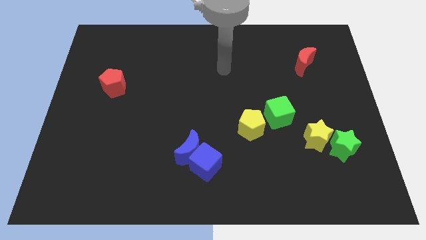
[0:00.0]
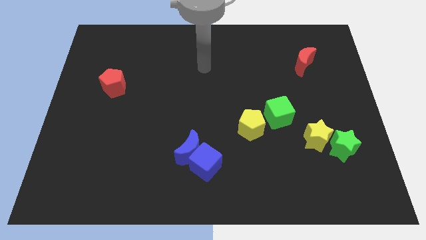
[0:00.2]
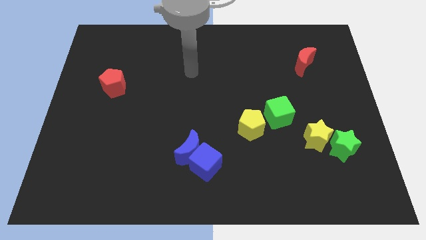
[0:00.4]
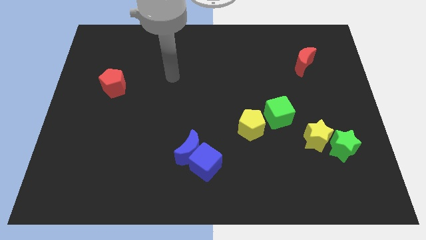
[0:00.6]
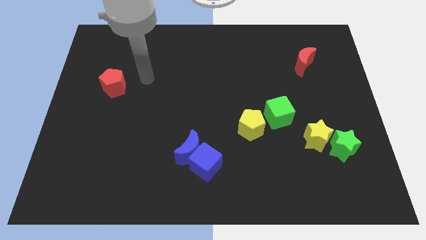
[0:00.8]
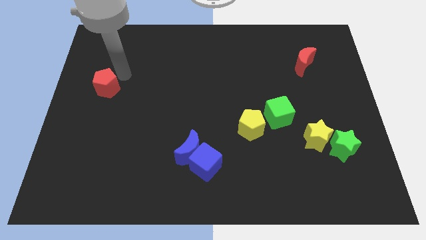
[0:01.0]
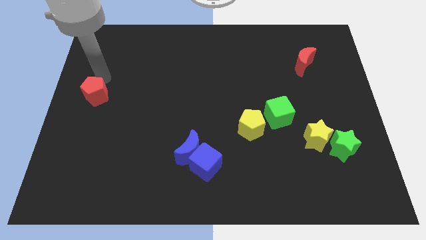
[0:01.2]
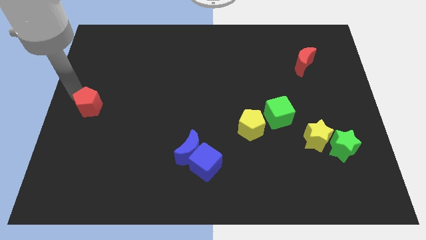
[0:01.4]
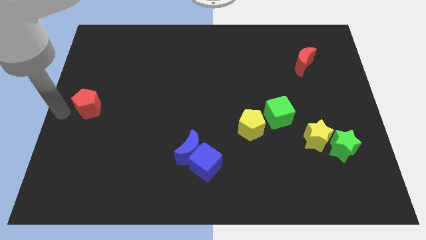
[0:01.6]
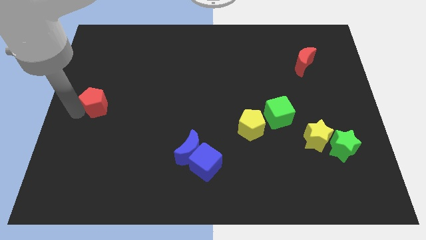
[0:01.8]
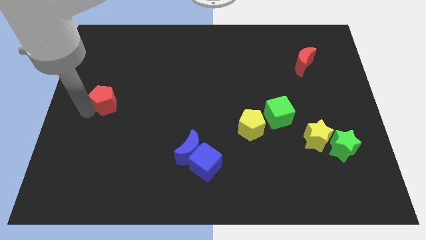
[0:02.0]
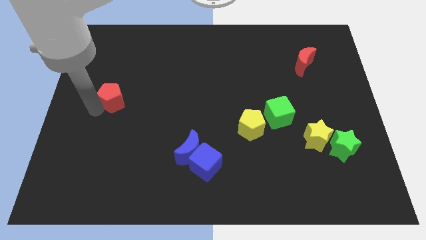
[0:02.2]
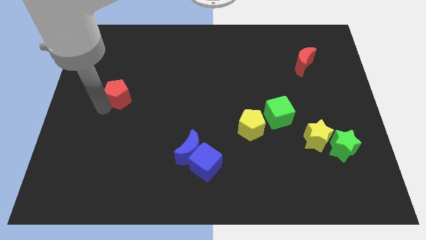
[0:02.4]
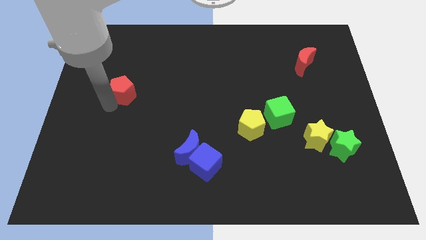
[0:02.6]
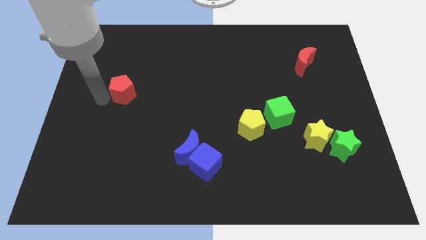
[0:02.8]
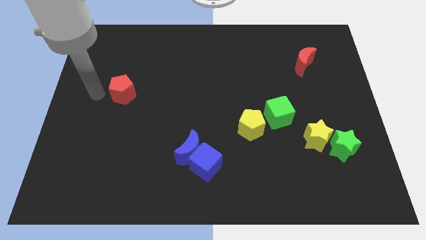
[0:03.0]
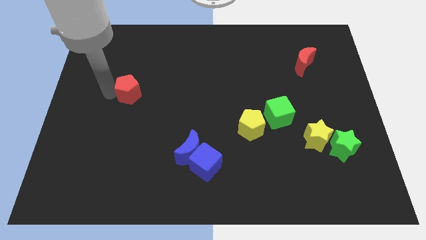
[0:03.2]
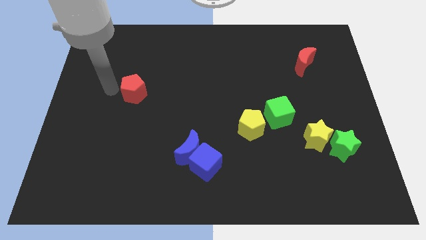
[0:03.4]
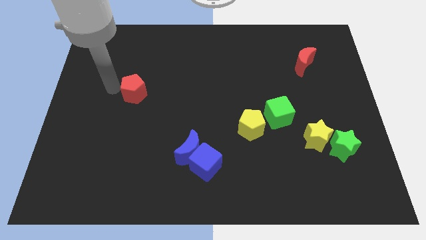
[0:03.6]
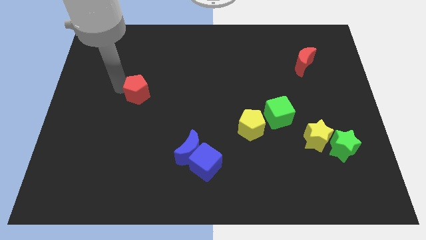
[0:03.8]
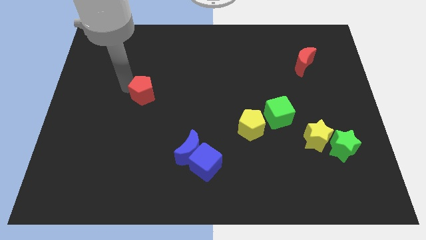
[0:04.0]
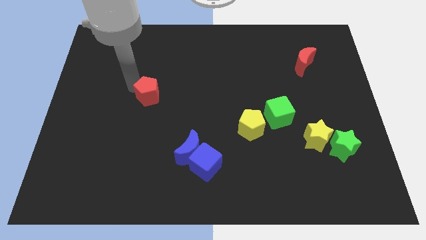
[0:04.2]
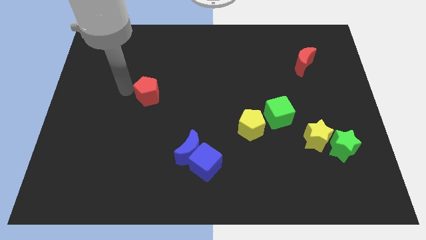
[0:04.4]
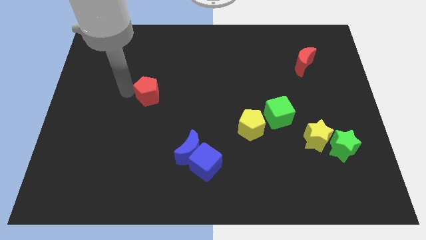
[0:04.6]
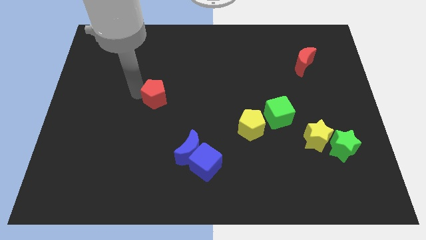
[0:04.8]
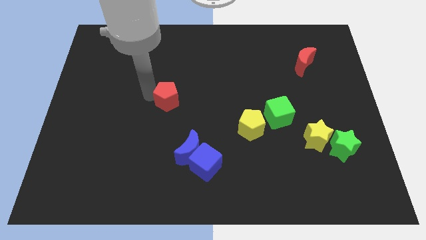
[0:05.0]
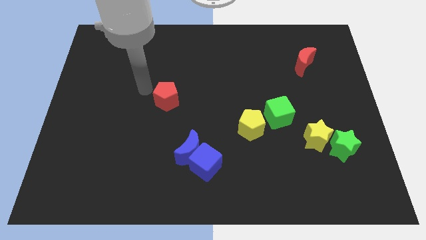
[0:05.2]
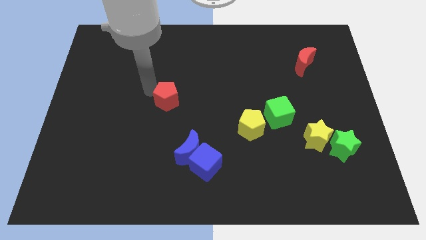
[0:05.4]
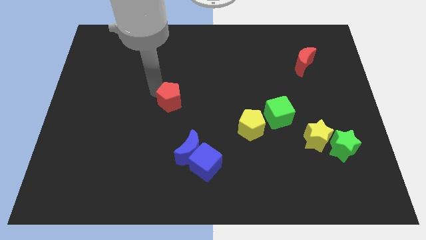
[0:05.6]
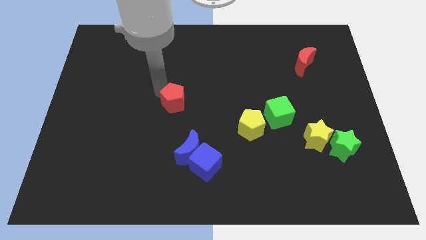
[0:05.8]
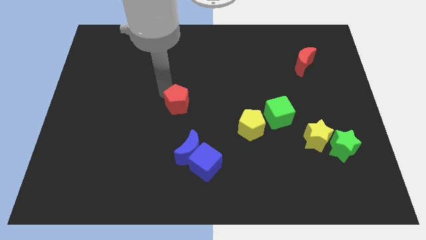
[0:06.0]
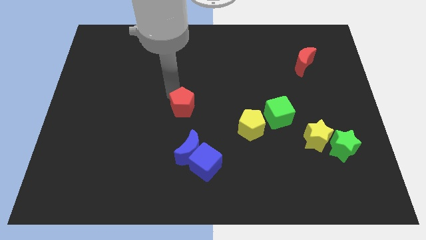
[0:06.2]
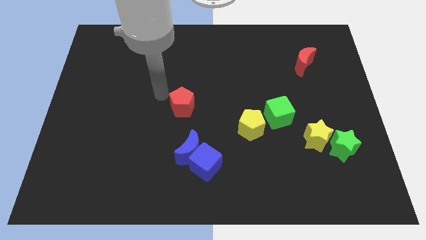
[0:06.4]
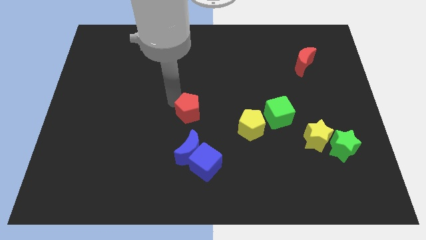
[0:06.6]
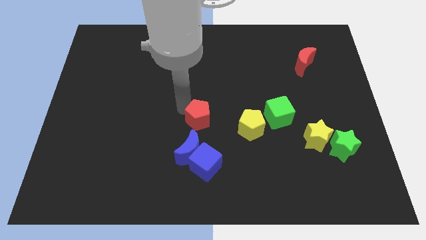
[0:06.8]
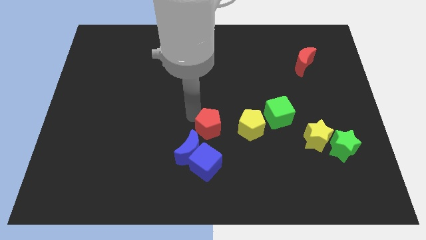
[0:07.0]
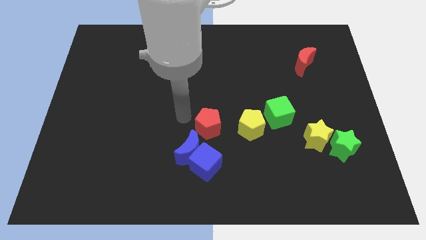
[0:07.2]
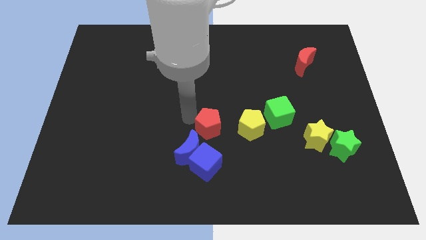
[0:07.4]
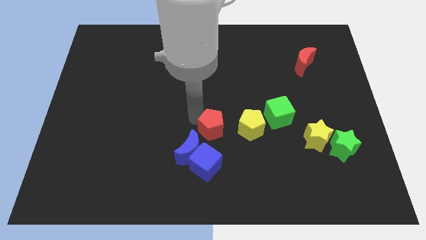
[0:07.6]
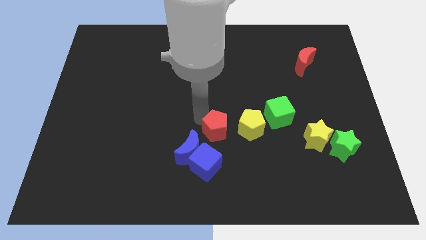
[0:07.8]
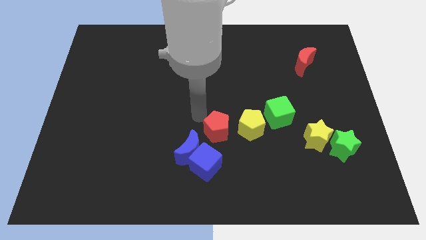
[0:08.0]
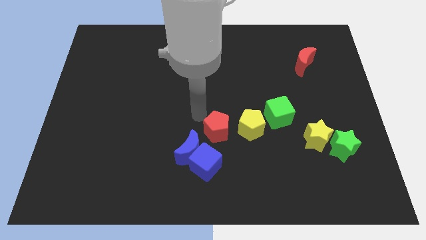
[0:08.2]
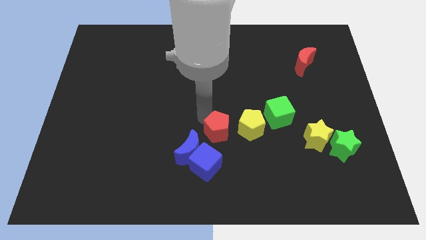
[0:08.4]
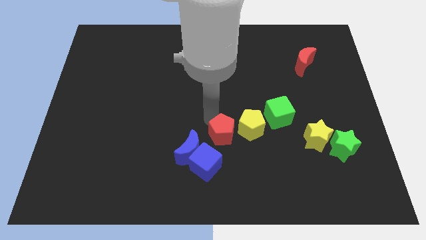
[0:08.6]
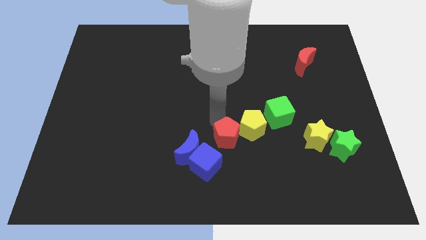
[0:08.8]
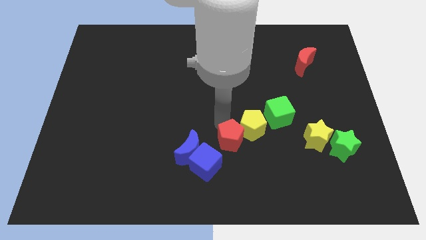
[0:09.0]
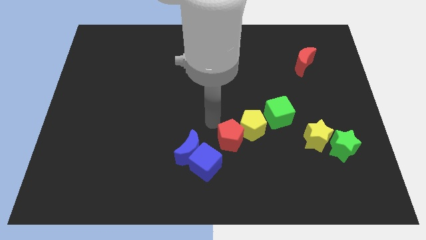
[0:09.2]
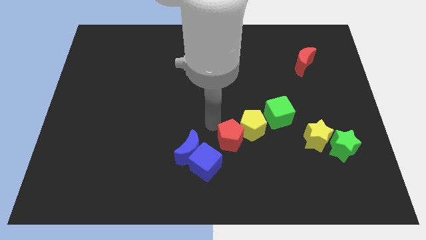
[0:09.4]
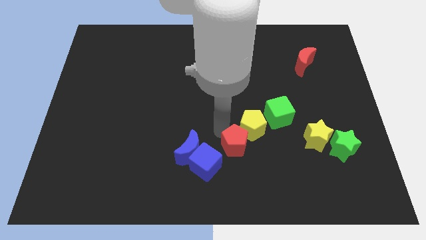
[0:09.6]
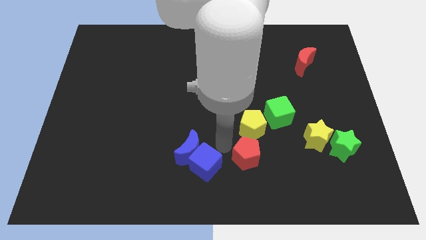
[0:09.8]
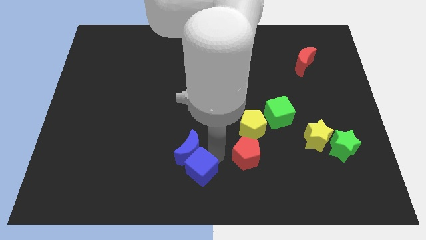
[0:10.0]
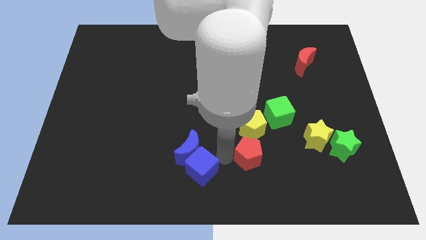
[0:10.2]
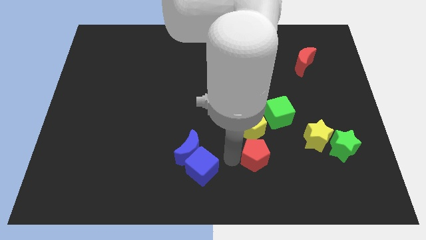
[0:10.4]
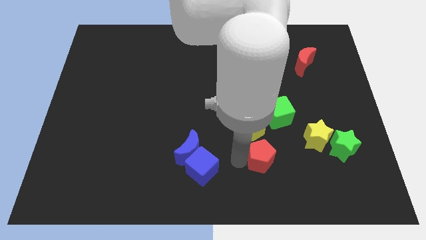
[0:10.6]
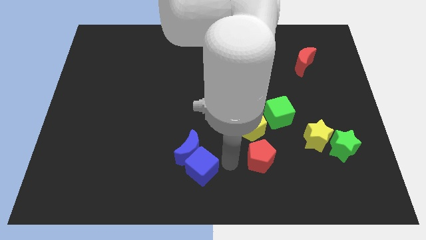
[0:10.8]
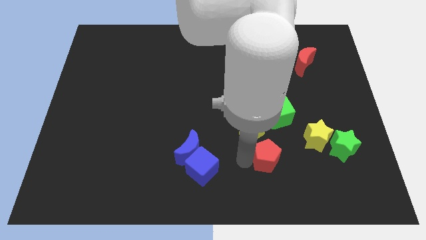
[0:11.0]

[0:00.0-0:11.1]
push the red pentagon to the bottom side of the green cube

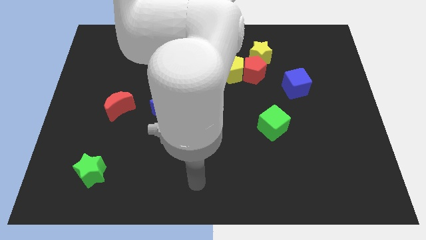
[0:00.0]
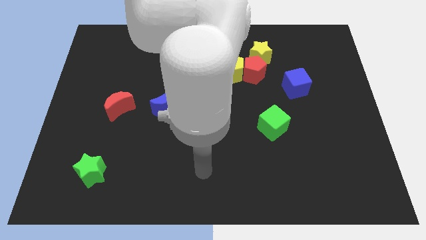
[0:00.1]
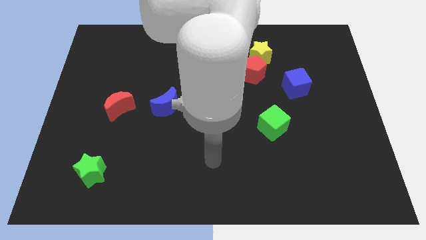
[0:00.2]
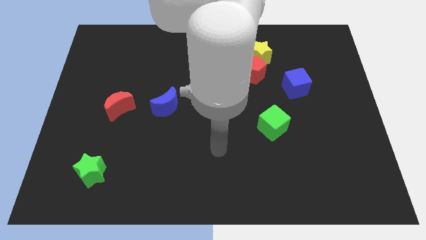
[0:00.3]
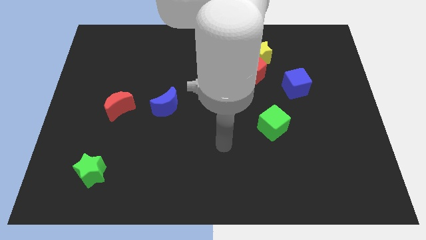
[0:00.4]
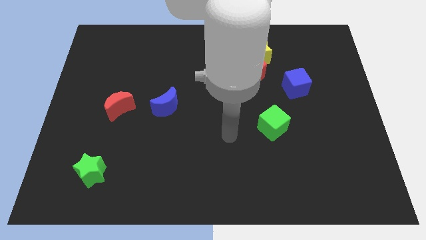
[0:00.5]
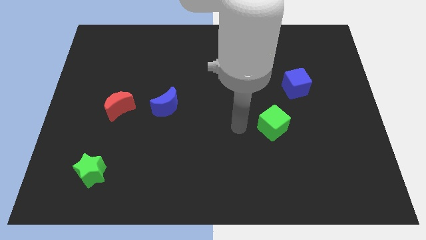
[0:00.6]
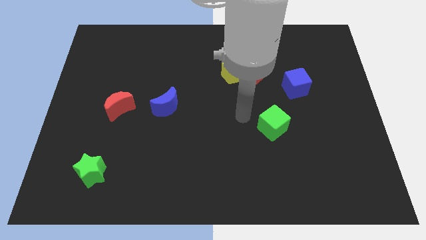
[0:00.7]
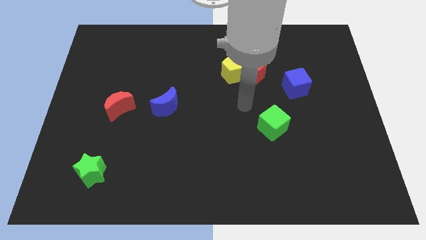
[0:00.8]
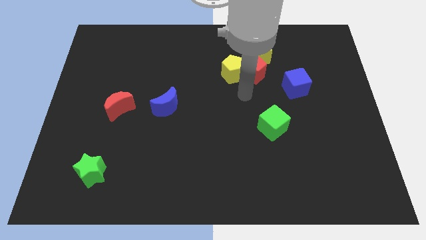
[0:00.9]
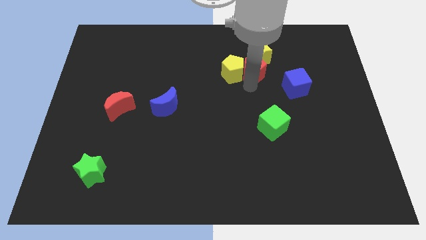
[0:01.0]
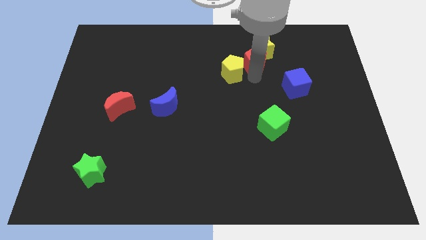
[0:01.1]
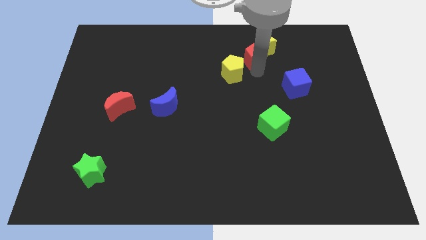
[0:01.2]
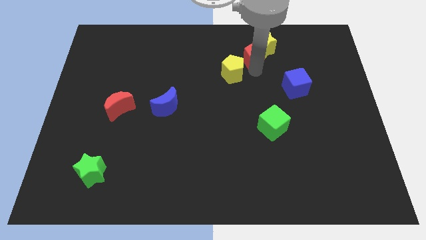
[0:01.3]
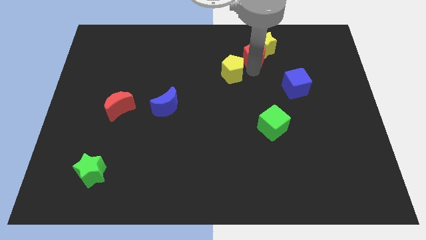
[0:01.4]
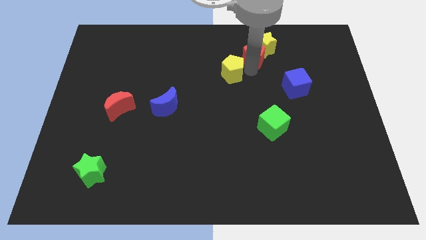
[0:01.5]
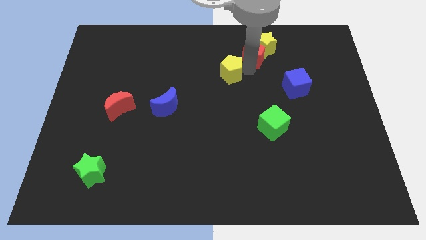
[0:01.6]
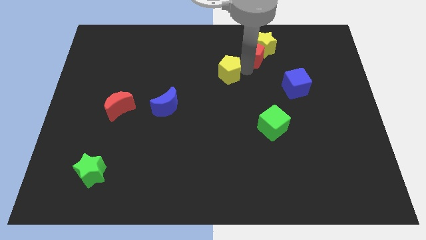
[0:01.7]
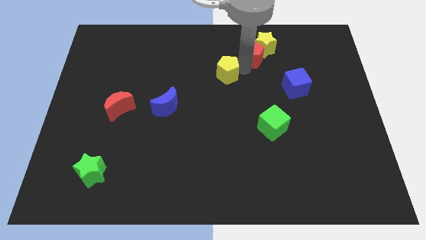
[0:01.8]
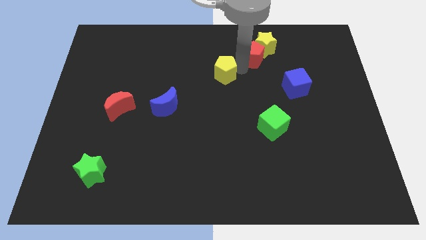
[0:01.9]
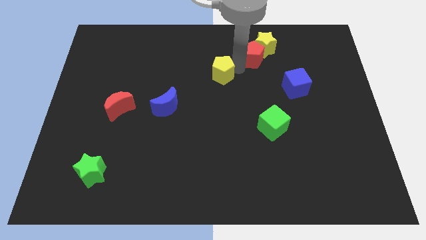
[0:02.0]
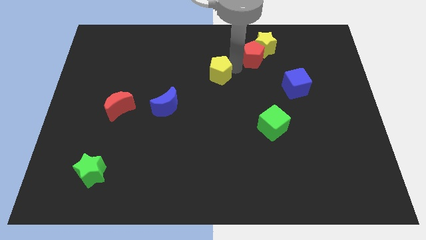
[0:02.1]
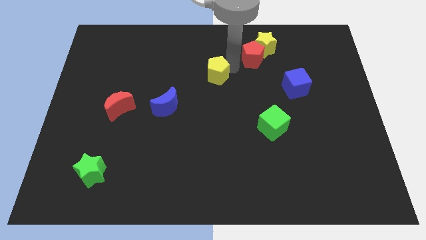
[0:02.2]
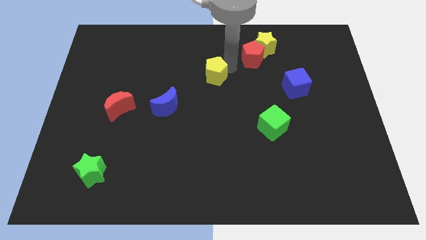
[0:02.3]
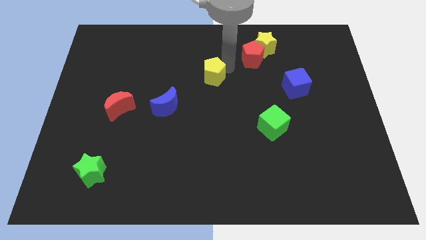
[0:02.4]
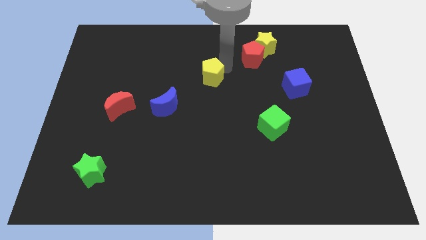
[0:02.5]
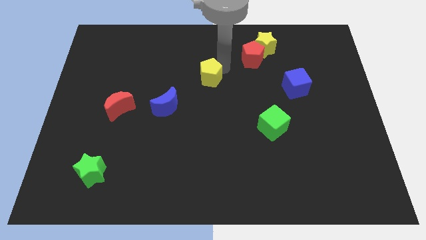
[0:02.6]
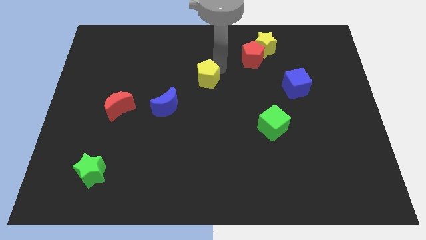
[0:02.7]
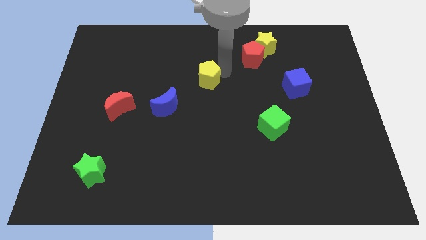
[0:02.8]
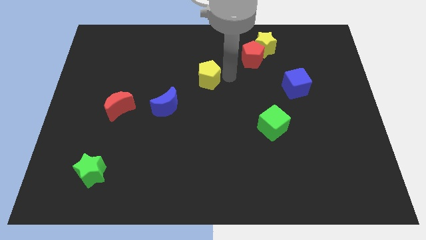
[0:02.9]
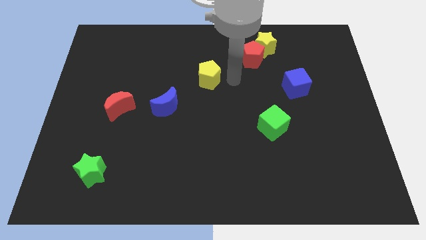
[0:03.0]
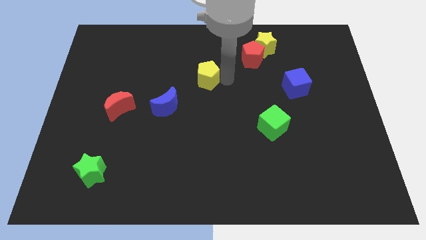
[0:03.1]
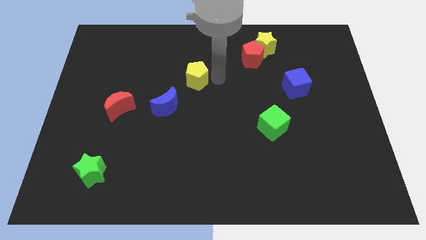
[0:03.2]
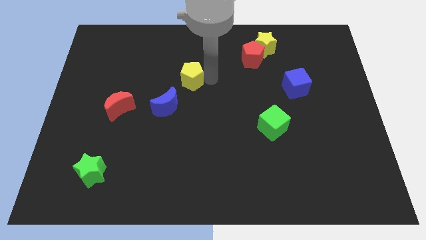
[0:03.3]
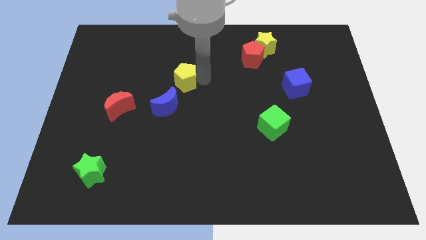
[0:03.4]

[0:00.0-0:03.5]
push the yellow pentagon above the blue moon
